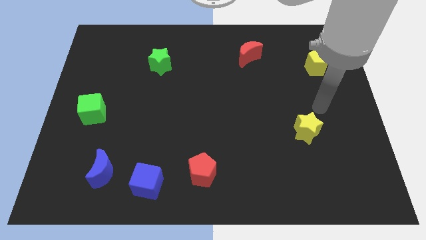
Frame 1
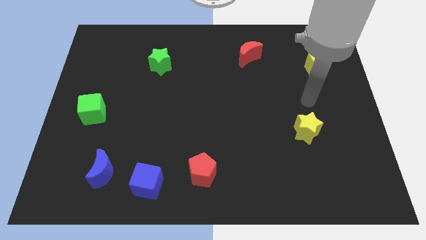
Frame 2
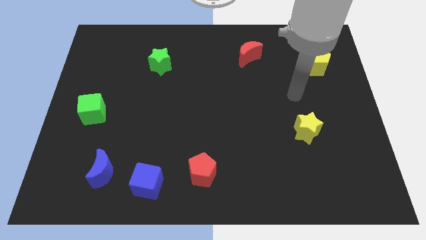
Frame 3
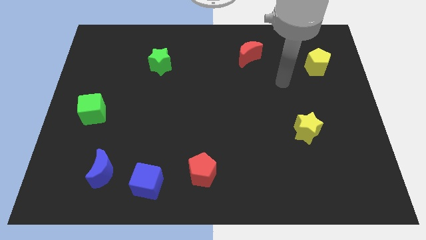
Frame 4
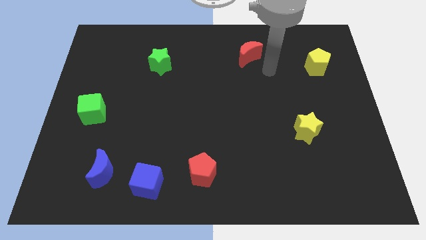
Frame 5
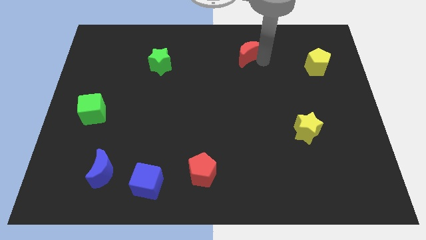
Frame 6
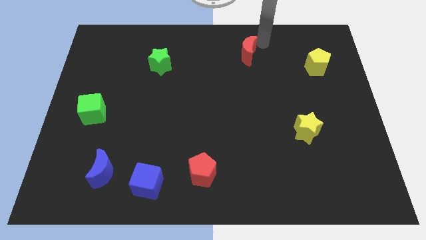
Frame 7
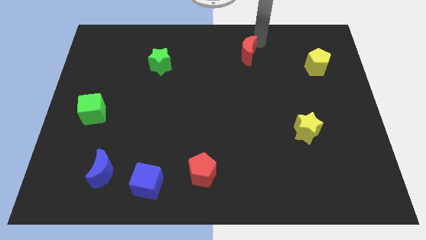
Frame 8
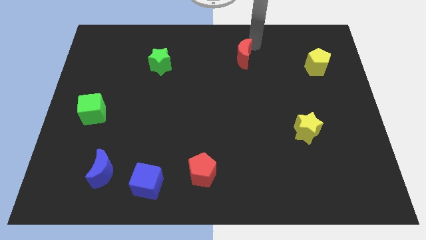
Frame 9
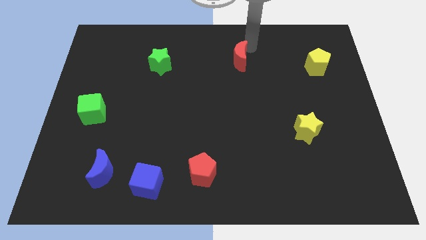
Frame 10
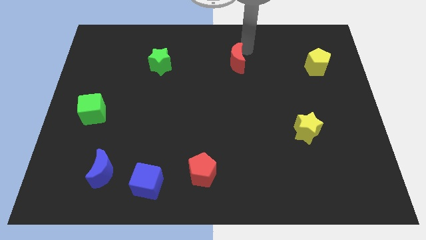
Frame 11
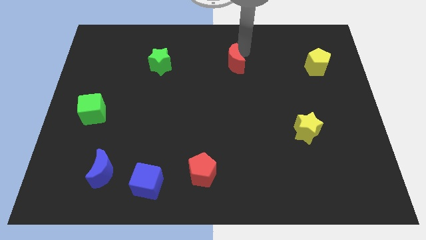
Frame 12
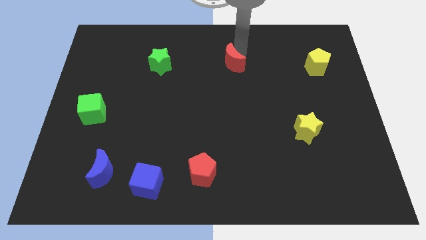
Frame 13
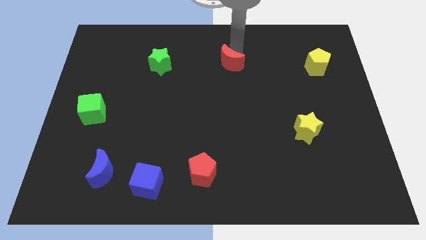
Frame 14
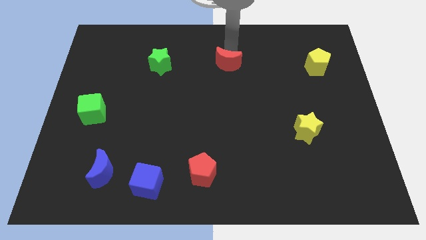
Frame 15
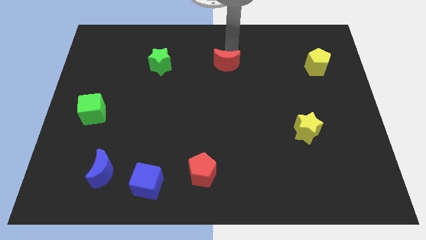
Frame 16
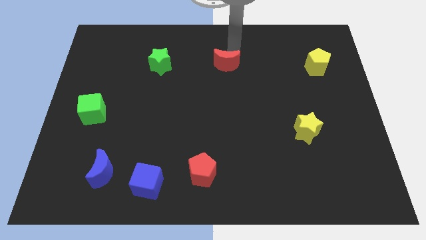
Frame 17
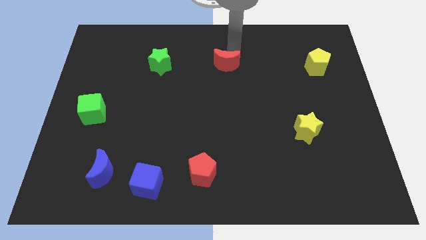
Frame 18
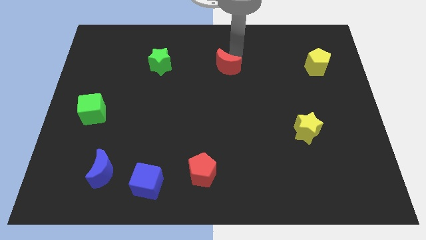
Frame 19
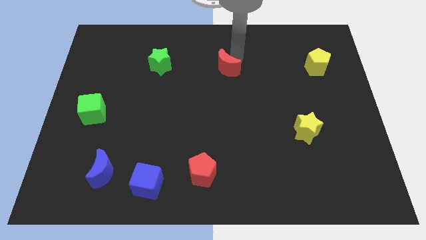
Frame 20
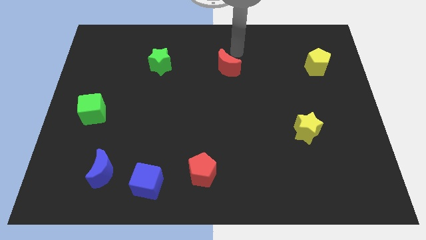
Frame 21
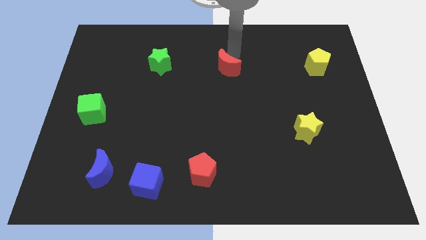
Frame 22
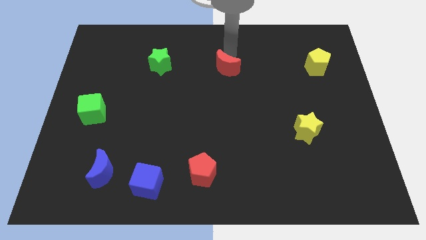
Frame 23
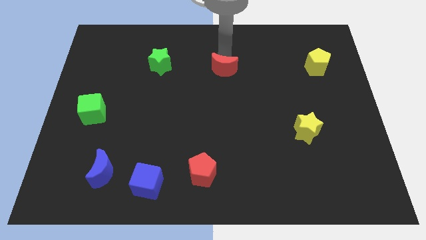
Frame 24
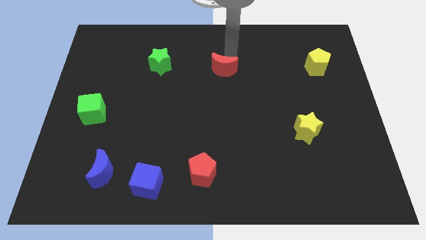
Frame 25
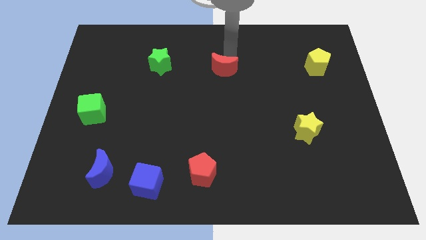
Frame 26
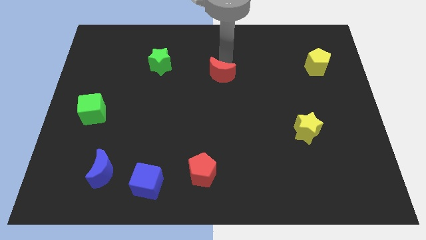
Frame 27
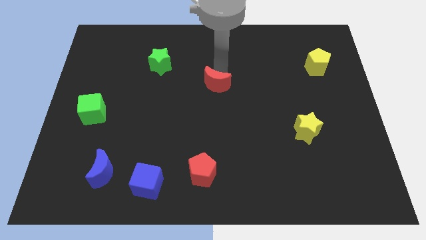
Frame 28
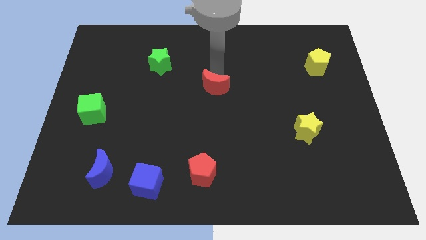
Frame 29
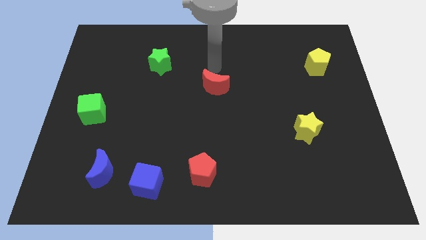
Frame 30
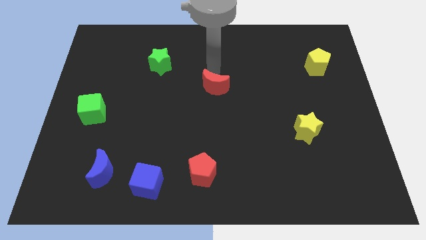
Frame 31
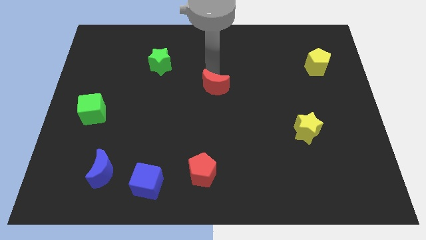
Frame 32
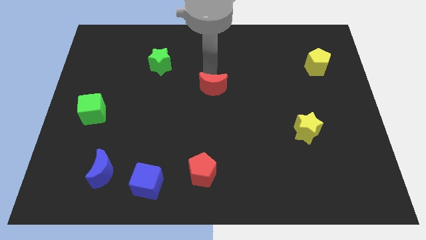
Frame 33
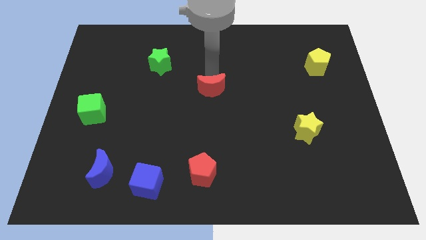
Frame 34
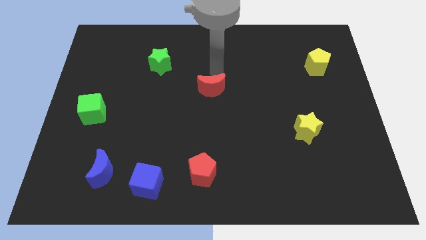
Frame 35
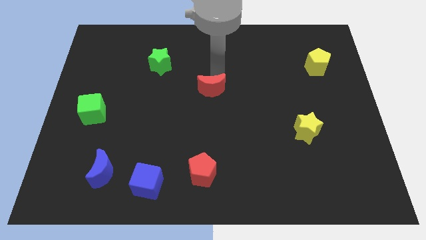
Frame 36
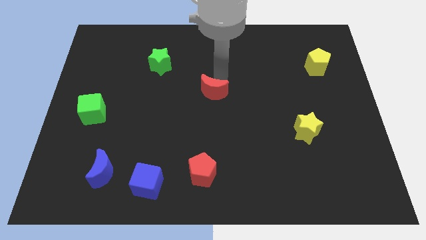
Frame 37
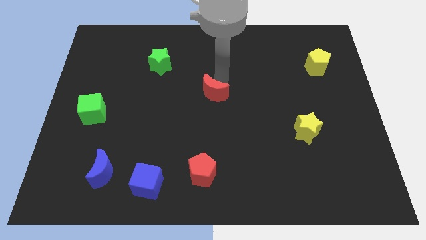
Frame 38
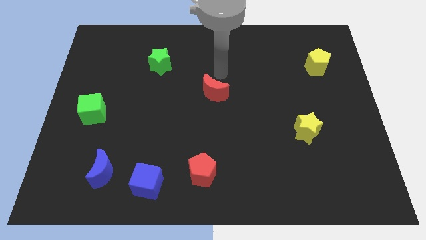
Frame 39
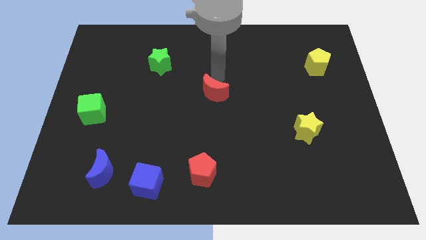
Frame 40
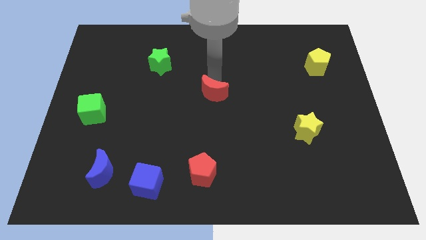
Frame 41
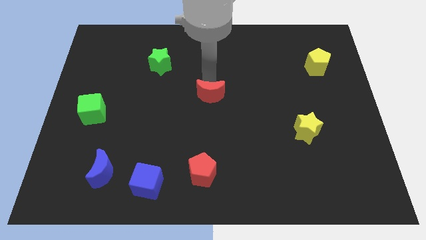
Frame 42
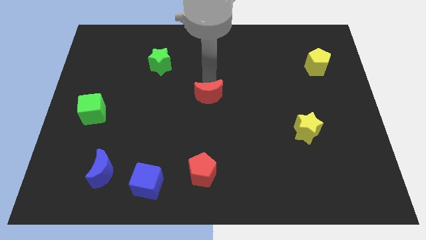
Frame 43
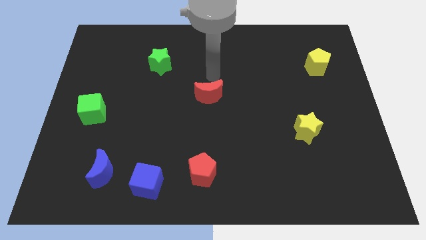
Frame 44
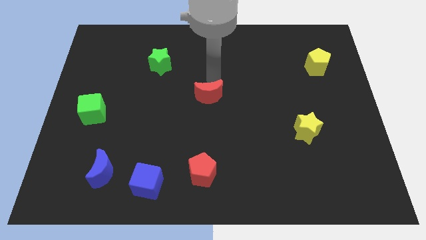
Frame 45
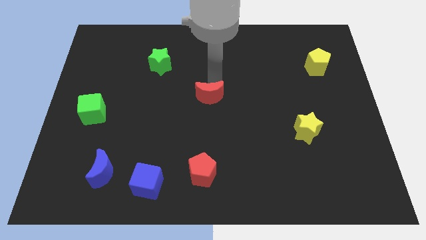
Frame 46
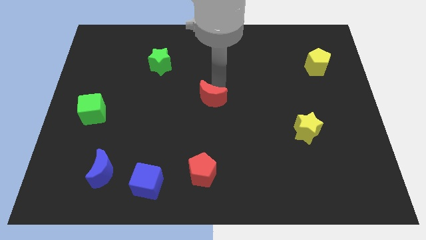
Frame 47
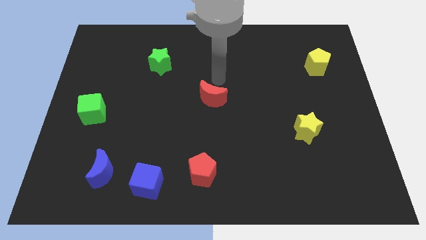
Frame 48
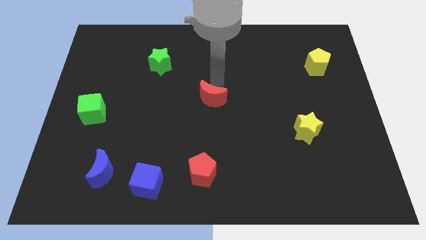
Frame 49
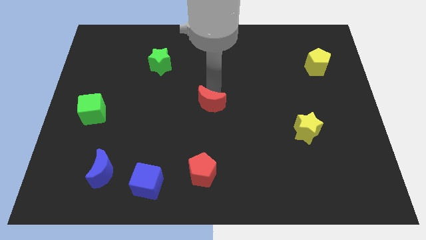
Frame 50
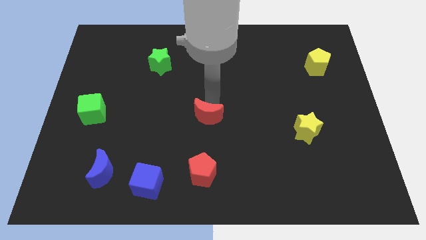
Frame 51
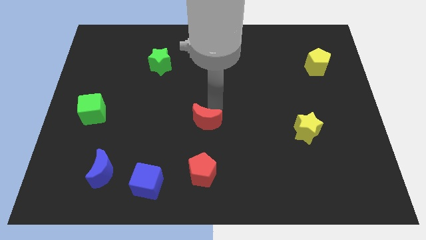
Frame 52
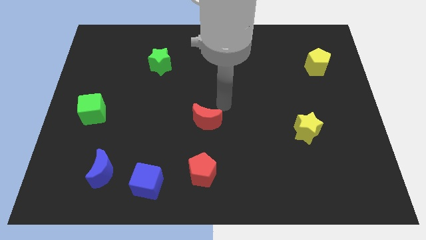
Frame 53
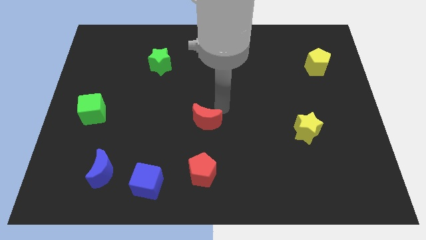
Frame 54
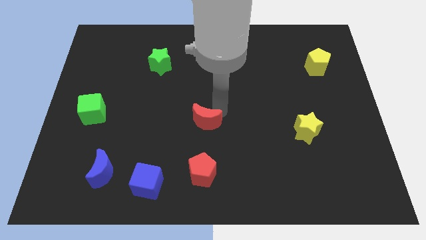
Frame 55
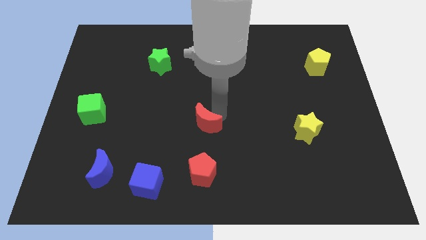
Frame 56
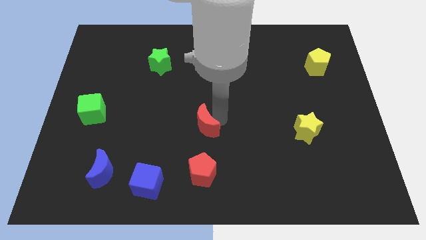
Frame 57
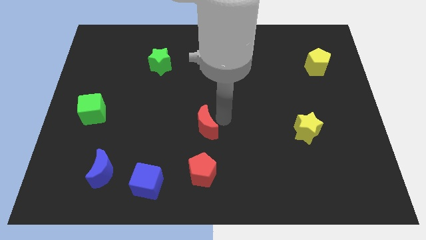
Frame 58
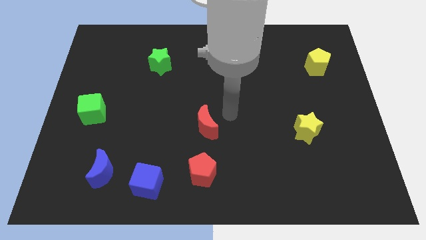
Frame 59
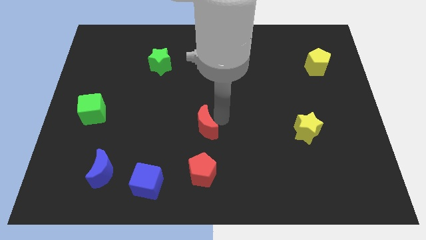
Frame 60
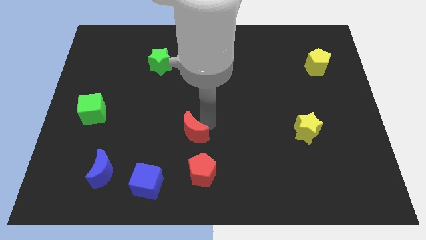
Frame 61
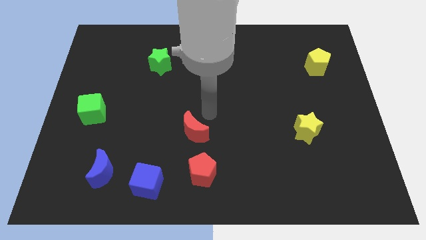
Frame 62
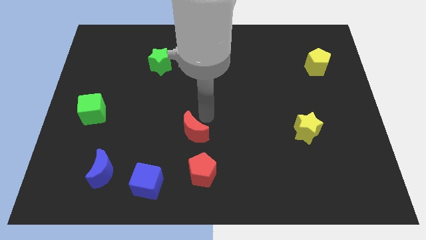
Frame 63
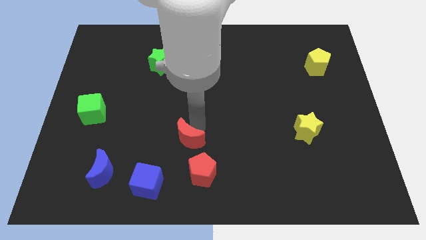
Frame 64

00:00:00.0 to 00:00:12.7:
slide the red moon to the top left of the red pentagon

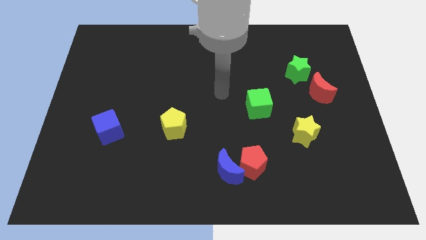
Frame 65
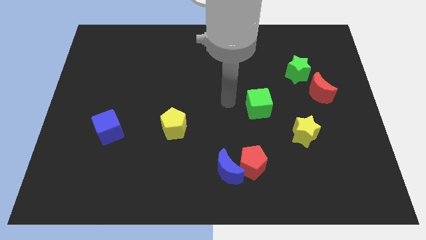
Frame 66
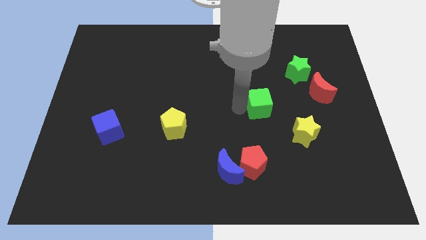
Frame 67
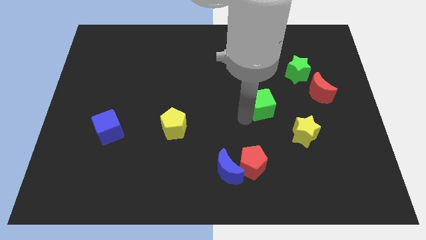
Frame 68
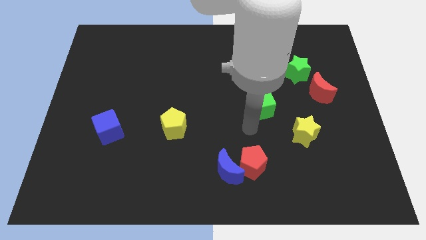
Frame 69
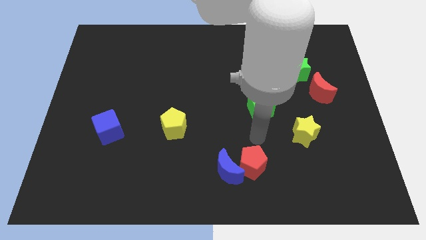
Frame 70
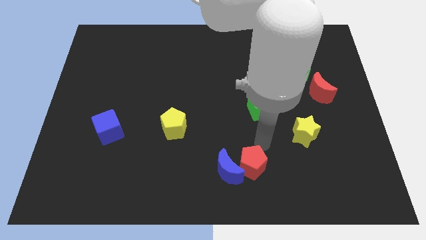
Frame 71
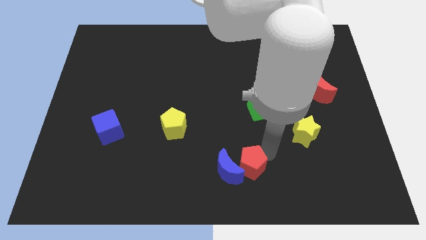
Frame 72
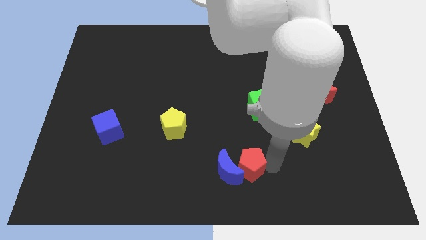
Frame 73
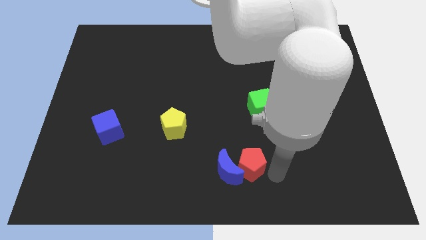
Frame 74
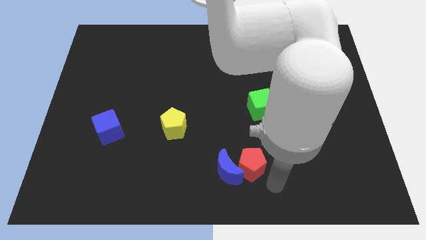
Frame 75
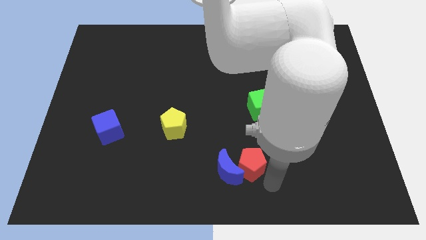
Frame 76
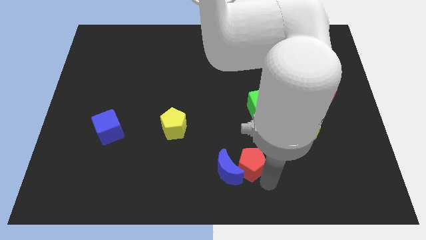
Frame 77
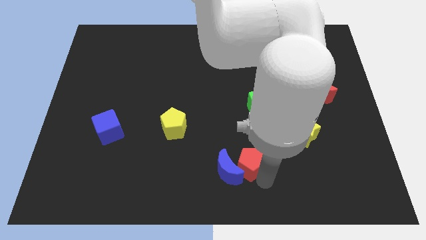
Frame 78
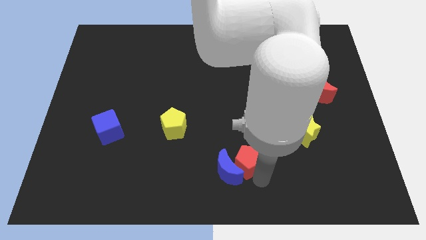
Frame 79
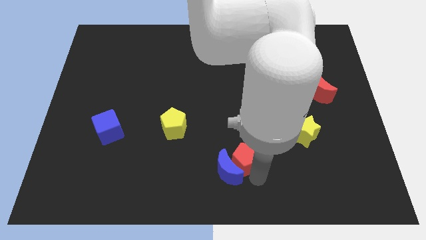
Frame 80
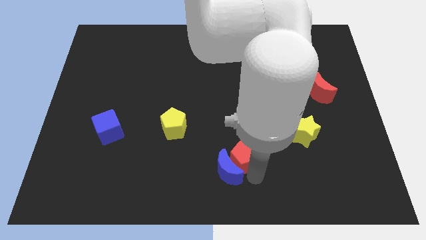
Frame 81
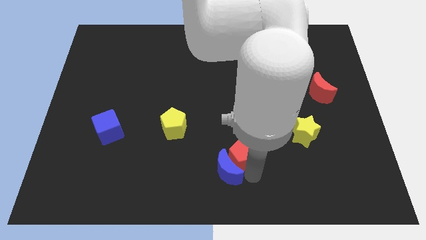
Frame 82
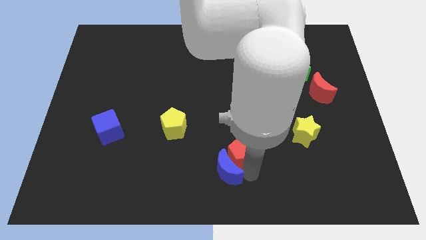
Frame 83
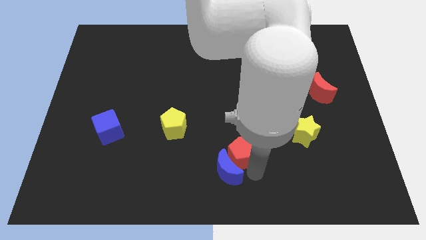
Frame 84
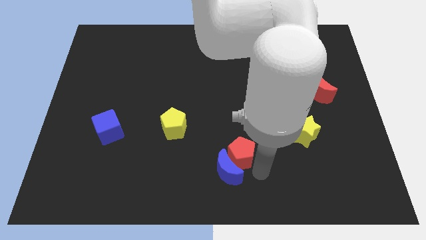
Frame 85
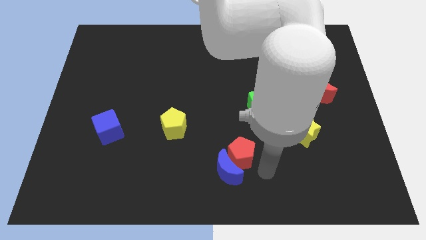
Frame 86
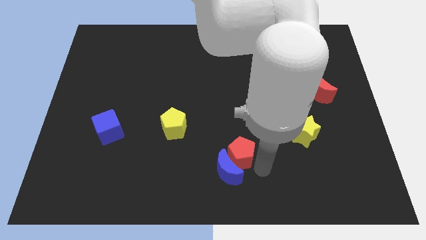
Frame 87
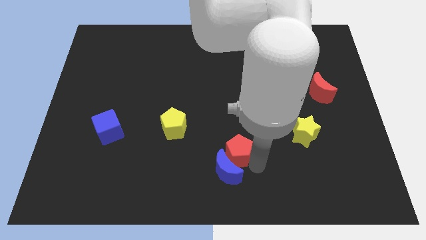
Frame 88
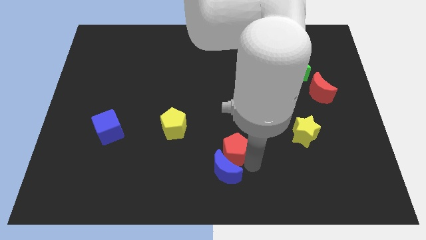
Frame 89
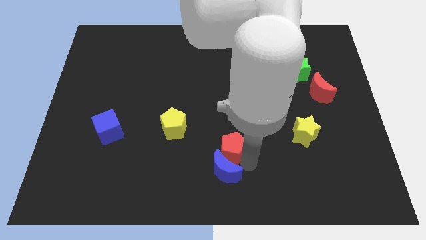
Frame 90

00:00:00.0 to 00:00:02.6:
push the red pentagon diagonally up and to the left of the blue moon
